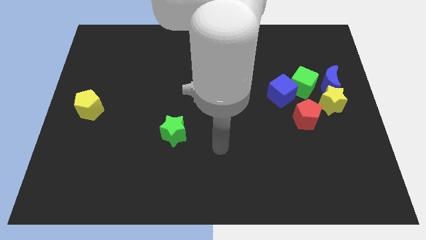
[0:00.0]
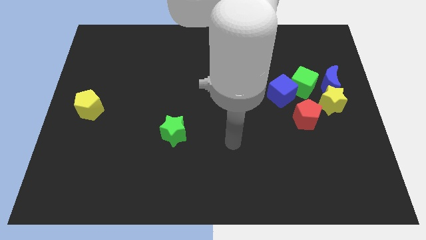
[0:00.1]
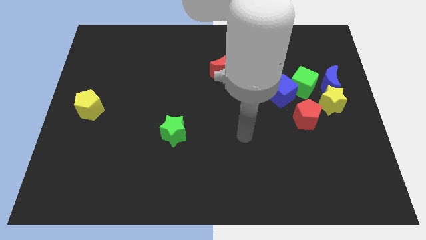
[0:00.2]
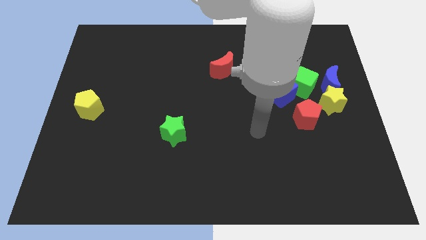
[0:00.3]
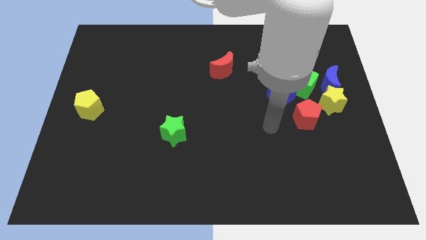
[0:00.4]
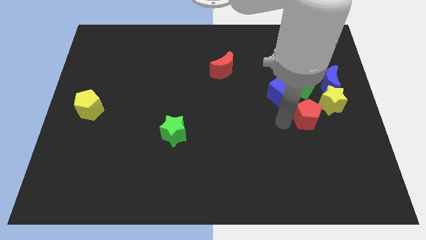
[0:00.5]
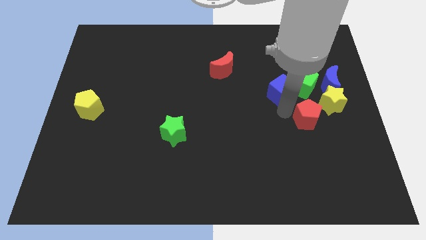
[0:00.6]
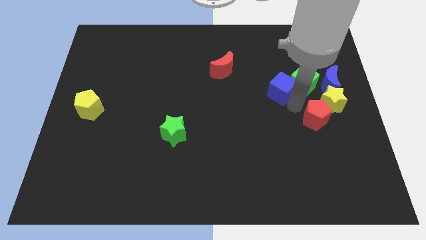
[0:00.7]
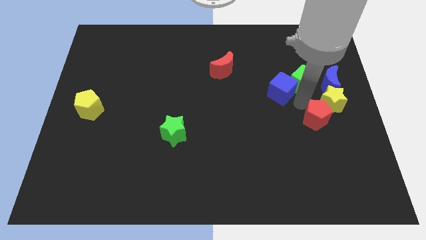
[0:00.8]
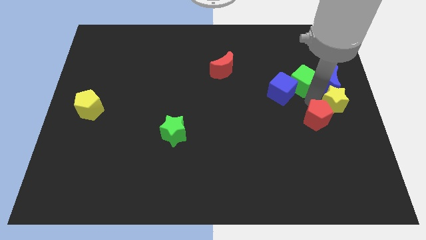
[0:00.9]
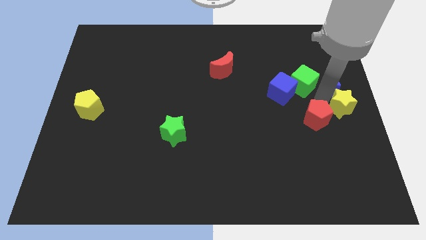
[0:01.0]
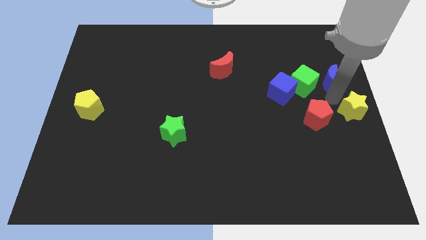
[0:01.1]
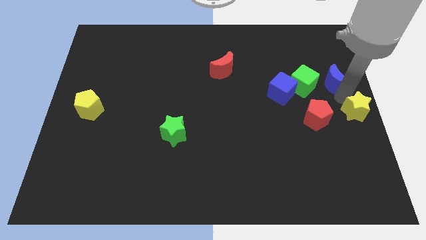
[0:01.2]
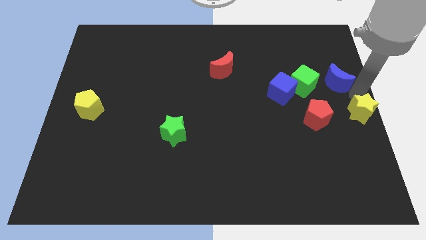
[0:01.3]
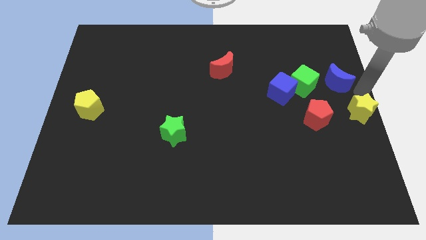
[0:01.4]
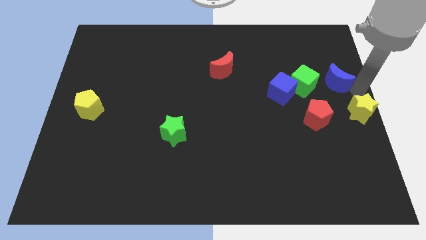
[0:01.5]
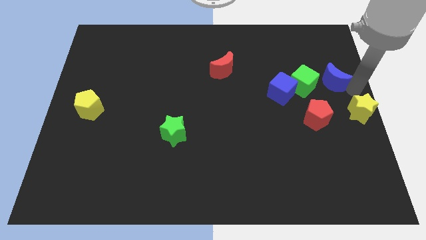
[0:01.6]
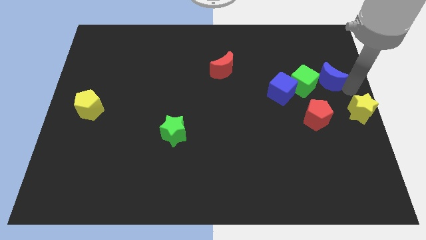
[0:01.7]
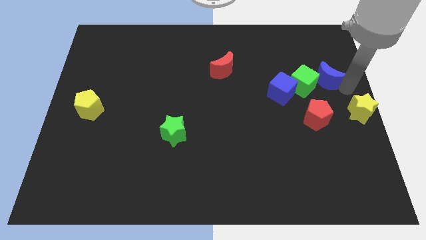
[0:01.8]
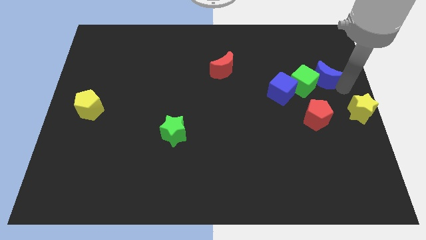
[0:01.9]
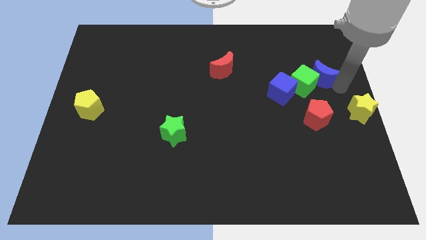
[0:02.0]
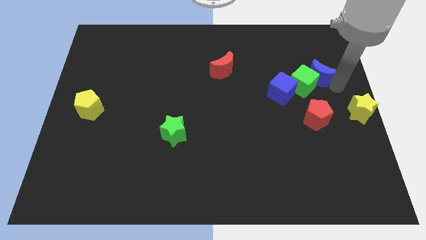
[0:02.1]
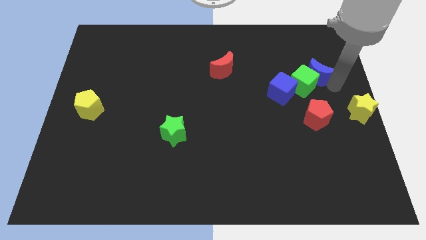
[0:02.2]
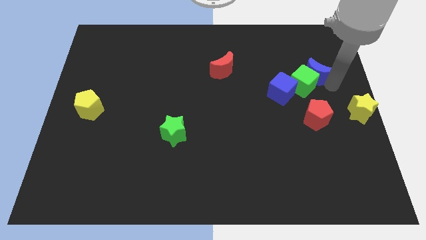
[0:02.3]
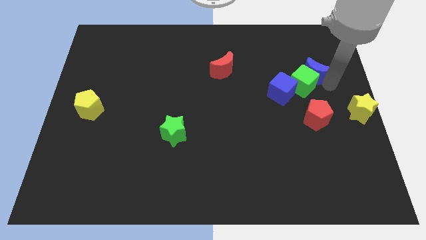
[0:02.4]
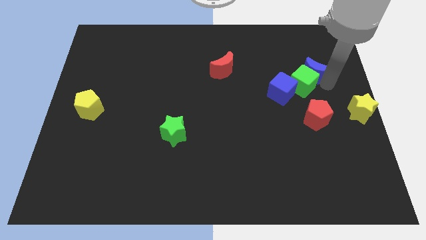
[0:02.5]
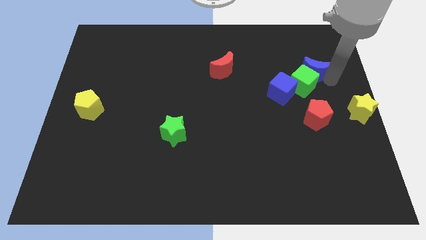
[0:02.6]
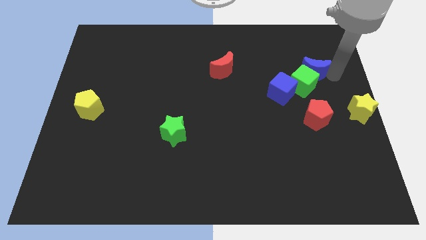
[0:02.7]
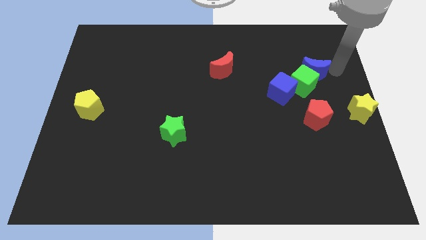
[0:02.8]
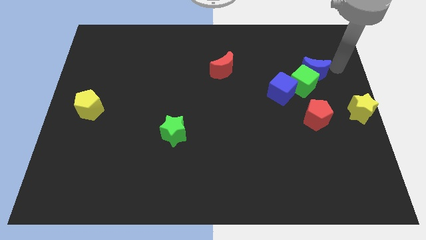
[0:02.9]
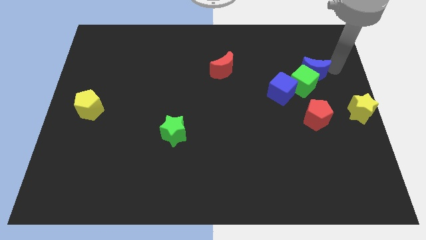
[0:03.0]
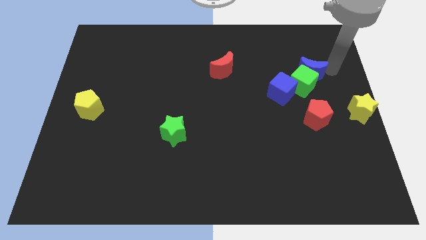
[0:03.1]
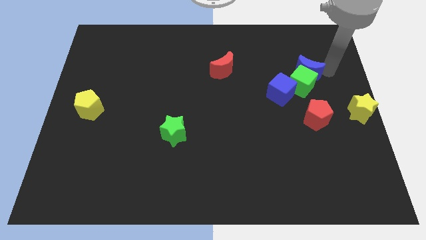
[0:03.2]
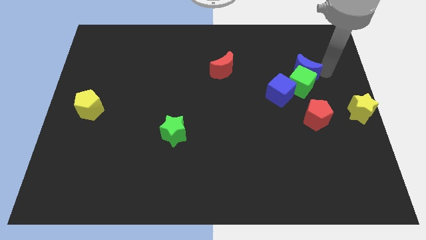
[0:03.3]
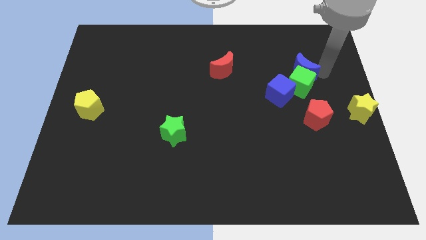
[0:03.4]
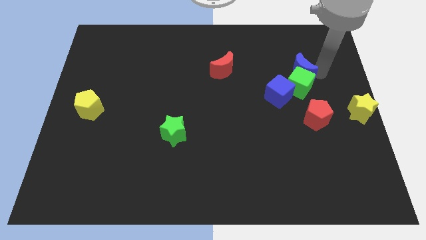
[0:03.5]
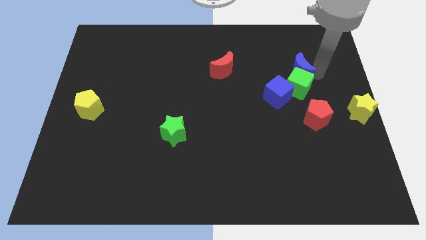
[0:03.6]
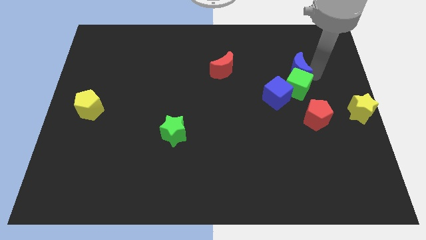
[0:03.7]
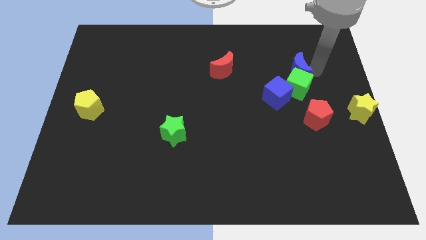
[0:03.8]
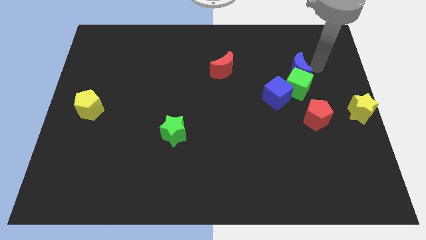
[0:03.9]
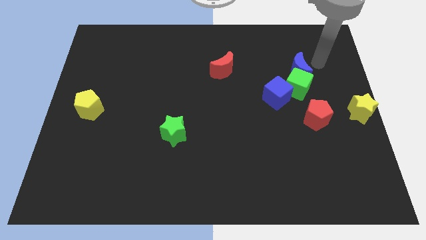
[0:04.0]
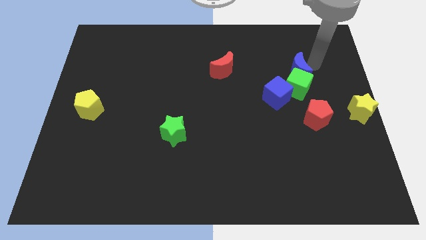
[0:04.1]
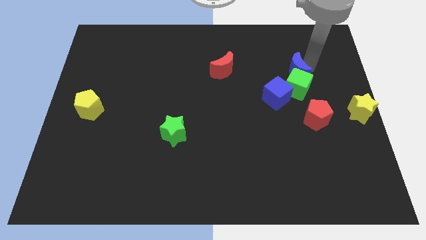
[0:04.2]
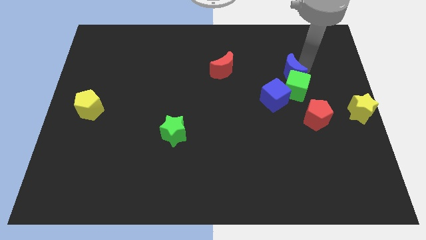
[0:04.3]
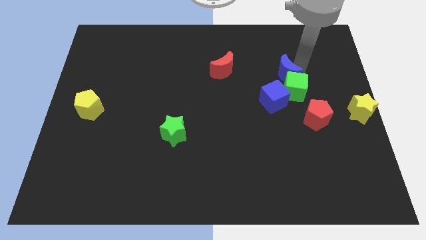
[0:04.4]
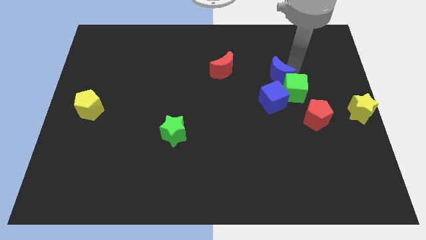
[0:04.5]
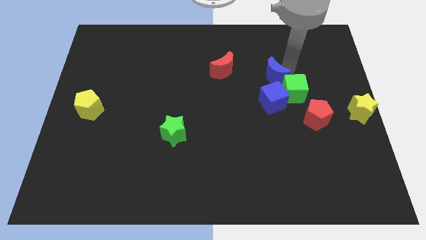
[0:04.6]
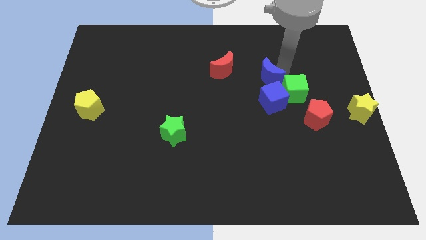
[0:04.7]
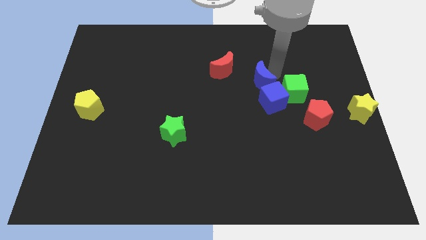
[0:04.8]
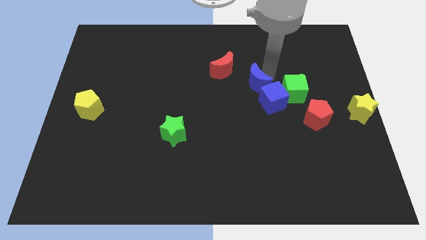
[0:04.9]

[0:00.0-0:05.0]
put the blue moon to the middle of the board

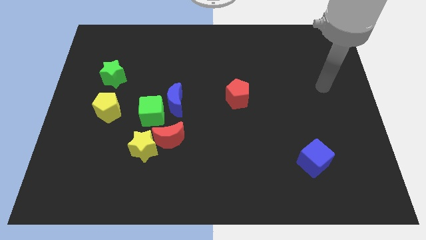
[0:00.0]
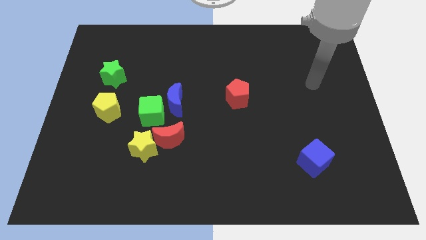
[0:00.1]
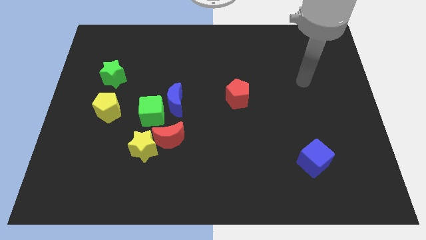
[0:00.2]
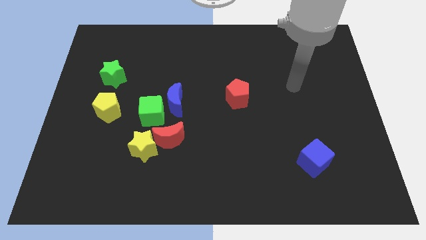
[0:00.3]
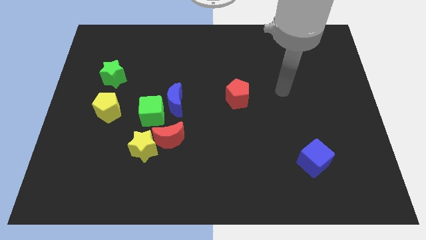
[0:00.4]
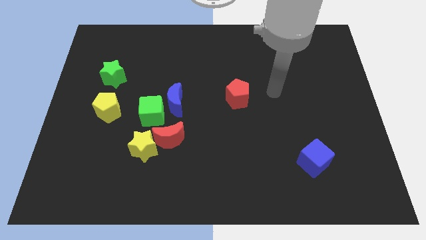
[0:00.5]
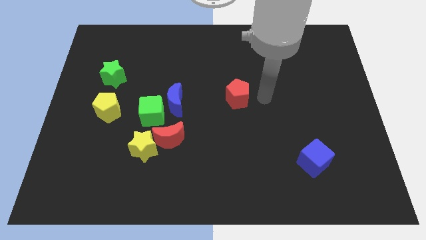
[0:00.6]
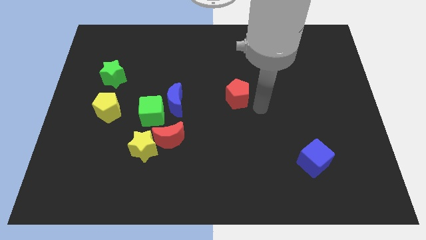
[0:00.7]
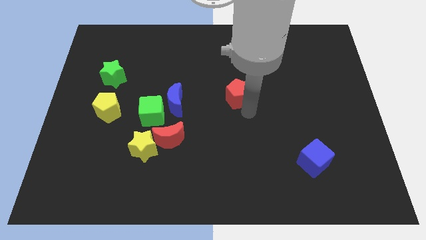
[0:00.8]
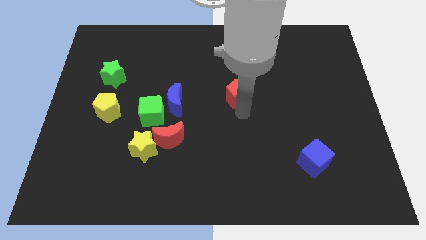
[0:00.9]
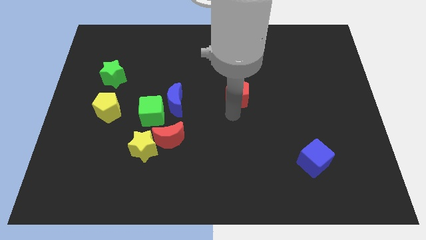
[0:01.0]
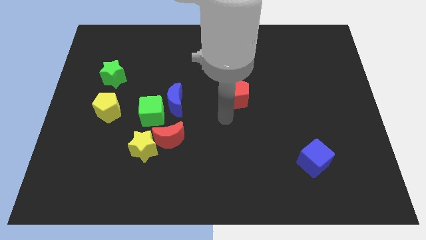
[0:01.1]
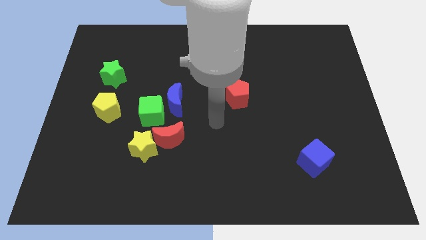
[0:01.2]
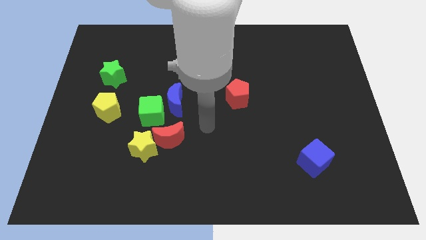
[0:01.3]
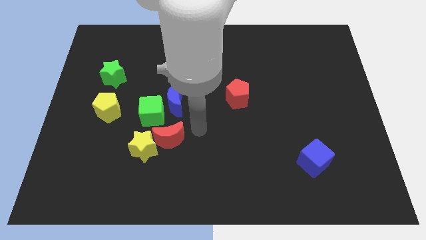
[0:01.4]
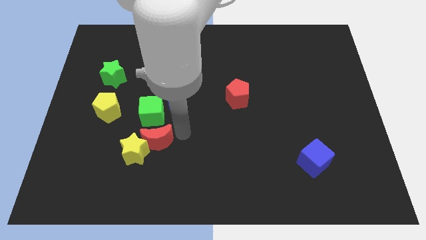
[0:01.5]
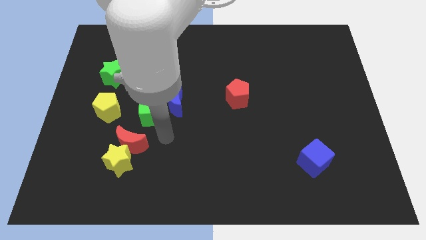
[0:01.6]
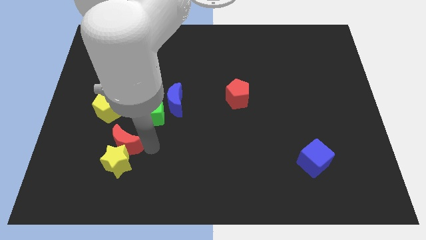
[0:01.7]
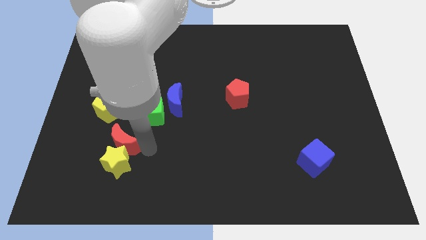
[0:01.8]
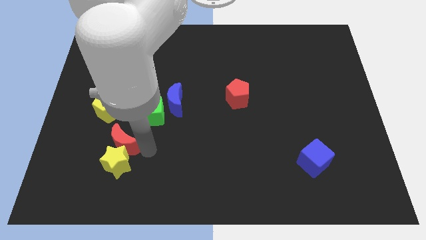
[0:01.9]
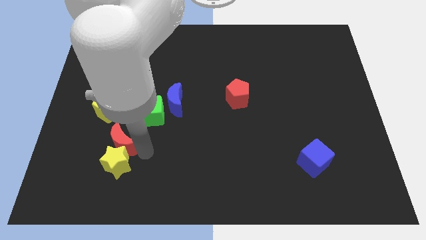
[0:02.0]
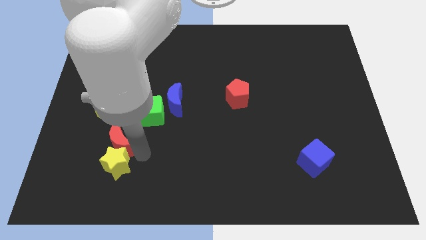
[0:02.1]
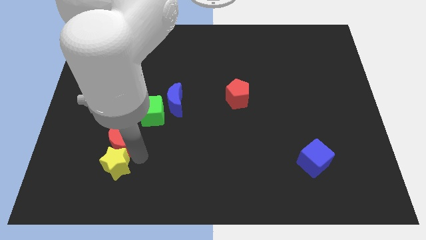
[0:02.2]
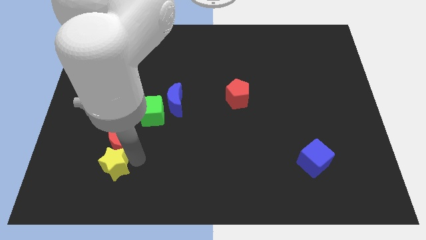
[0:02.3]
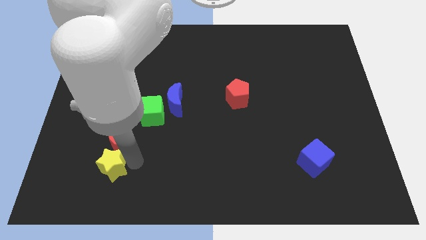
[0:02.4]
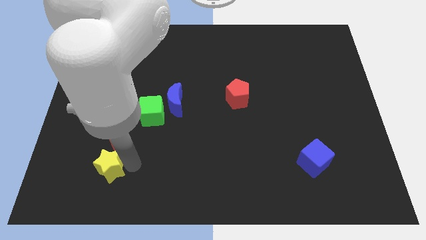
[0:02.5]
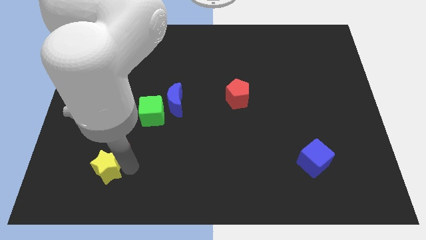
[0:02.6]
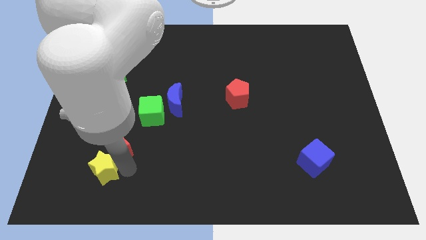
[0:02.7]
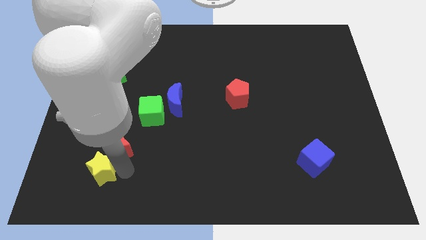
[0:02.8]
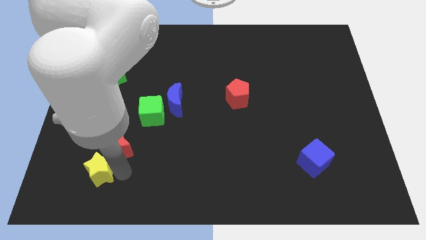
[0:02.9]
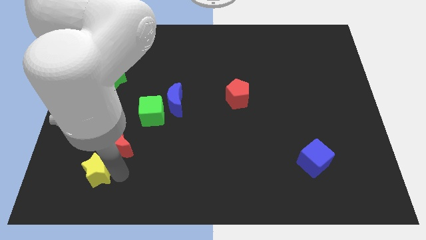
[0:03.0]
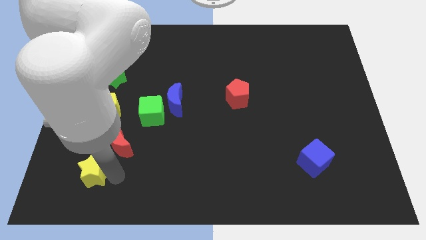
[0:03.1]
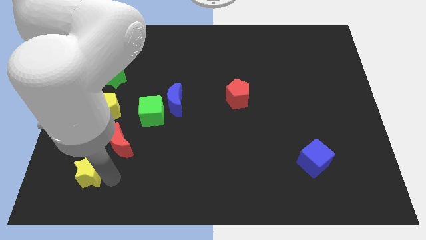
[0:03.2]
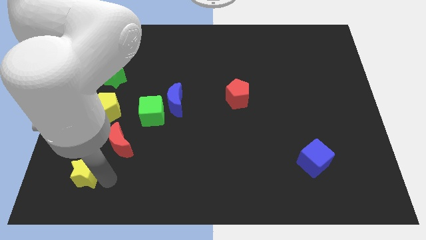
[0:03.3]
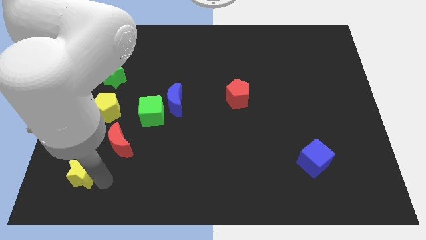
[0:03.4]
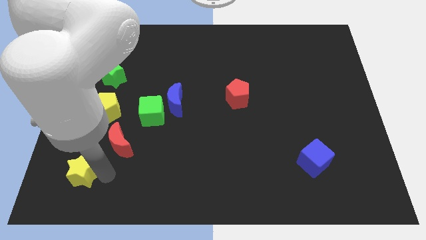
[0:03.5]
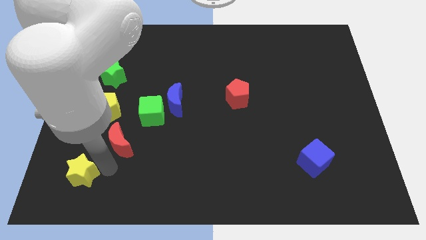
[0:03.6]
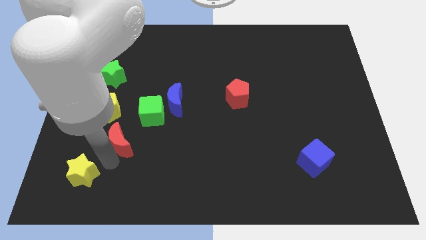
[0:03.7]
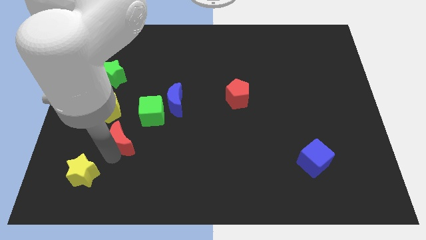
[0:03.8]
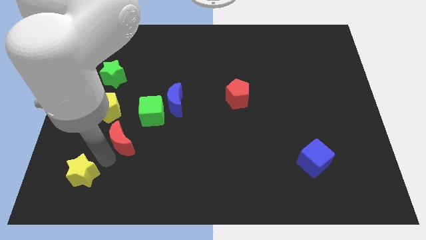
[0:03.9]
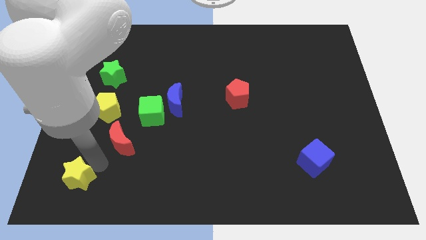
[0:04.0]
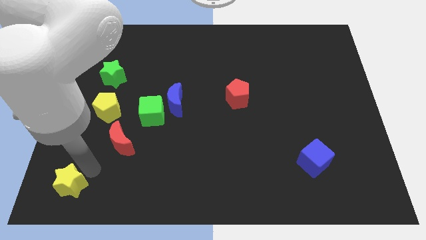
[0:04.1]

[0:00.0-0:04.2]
slide the yellow star to the bottom left corner
